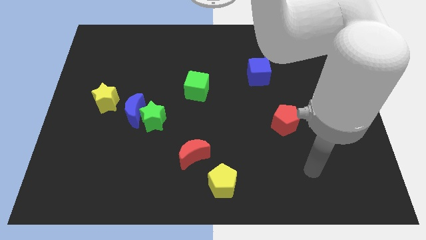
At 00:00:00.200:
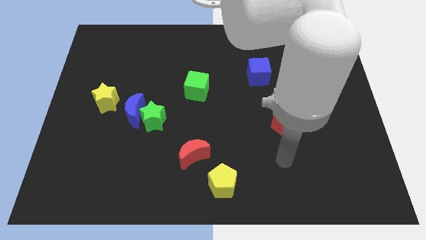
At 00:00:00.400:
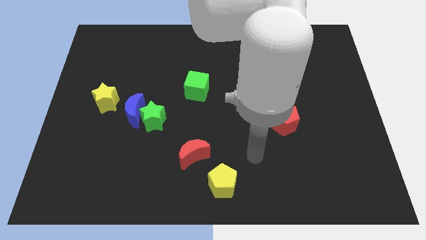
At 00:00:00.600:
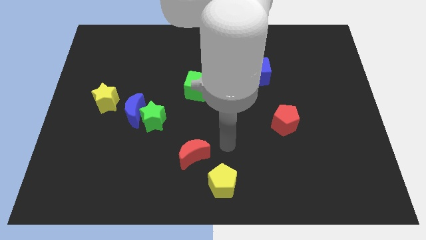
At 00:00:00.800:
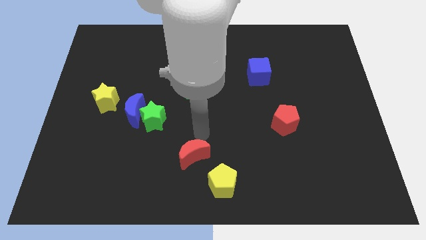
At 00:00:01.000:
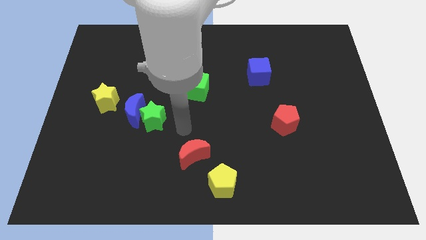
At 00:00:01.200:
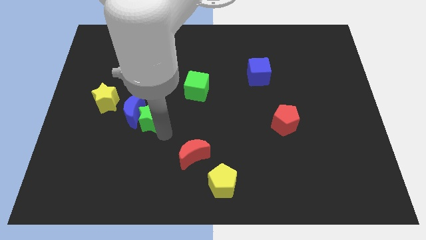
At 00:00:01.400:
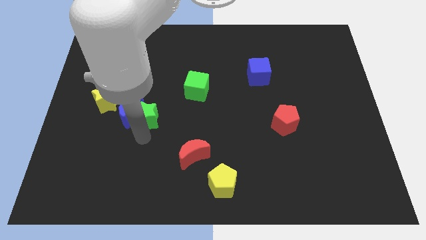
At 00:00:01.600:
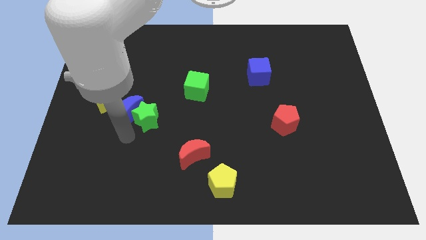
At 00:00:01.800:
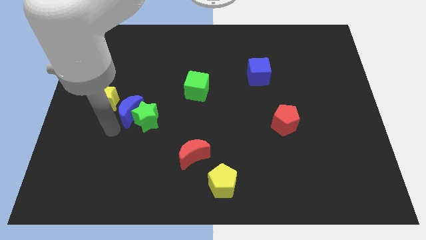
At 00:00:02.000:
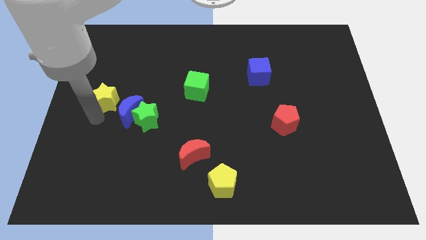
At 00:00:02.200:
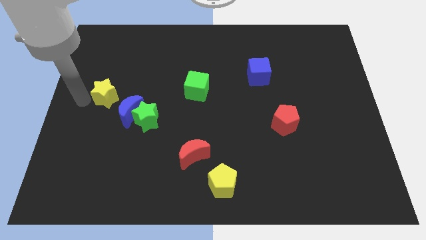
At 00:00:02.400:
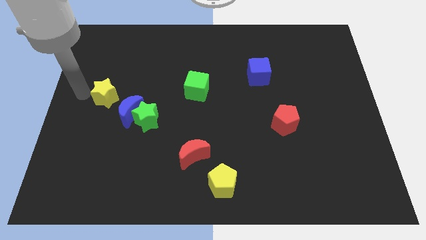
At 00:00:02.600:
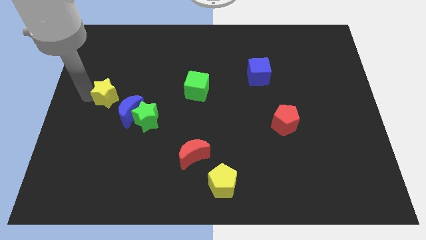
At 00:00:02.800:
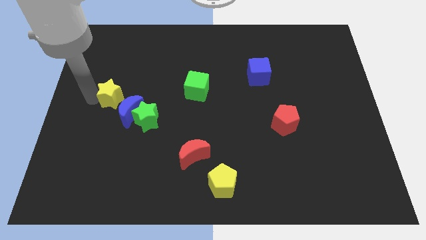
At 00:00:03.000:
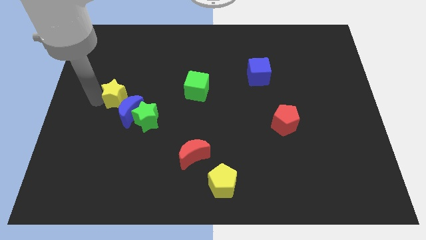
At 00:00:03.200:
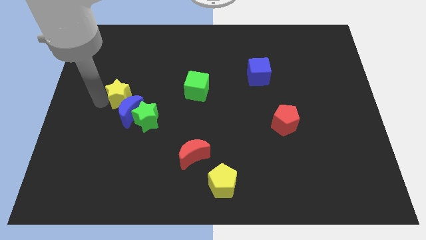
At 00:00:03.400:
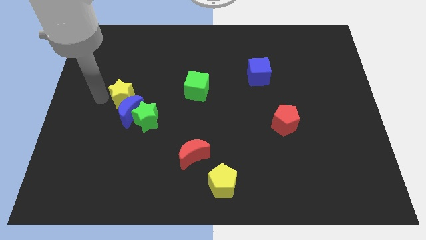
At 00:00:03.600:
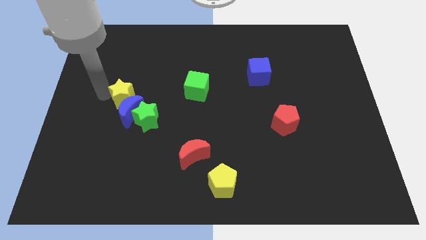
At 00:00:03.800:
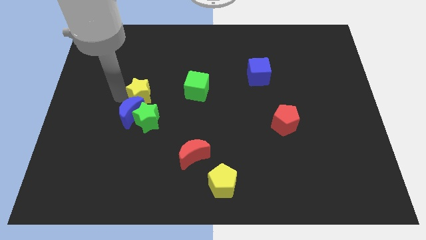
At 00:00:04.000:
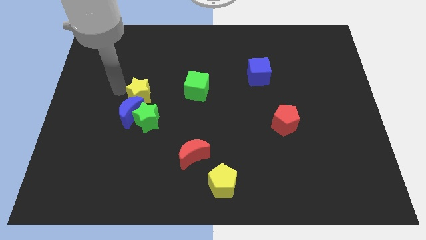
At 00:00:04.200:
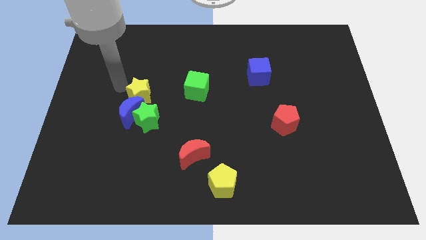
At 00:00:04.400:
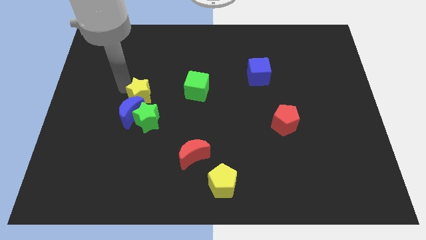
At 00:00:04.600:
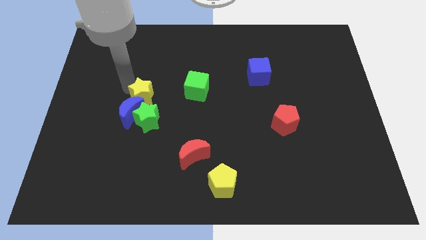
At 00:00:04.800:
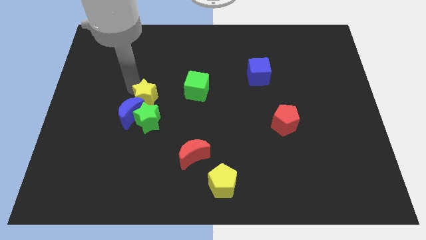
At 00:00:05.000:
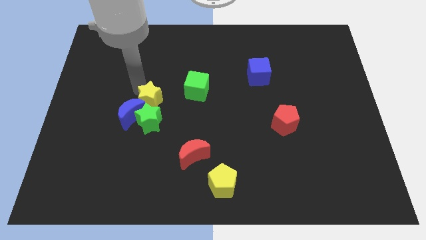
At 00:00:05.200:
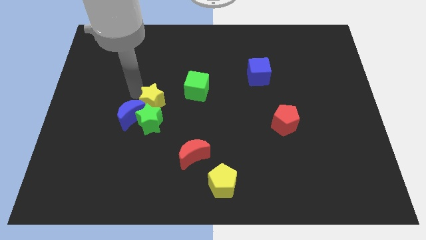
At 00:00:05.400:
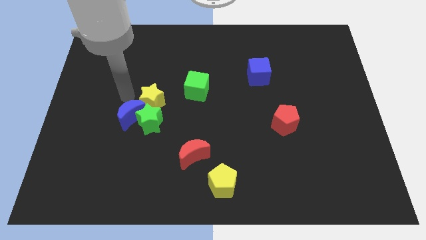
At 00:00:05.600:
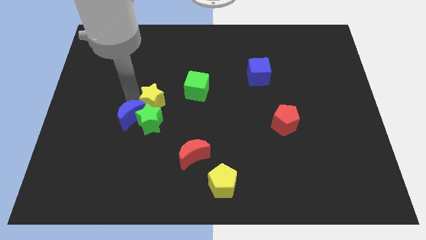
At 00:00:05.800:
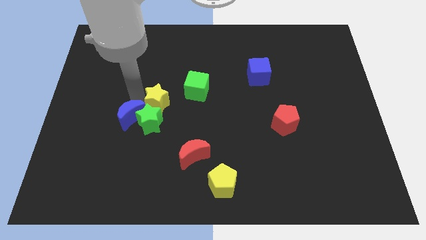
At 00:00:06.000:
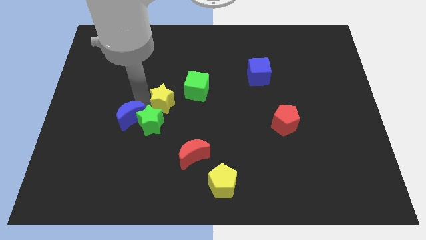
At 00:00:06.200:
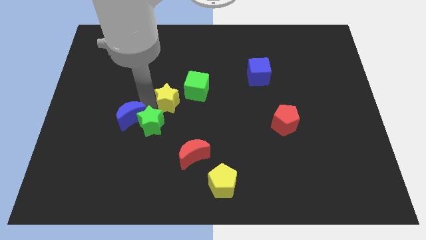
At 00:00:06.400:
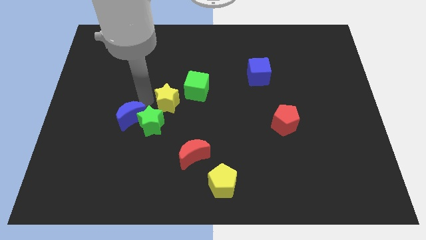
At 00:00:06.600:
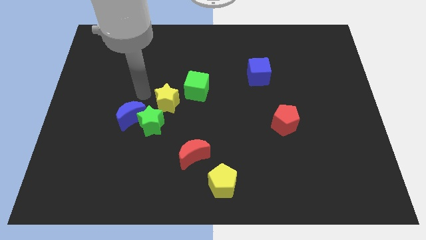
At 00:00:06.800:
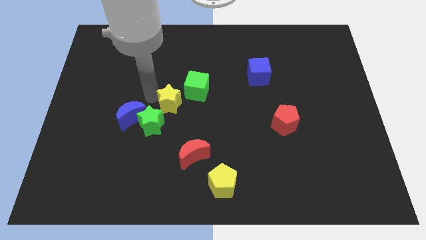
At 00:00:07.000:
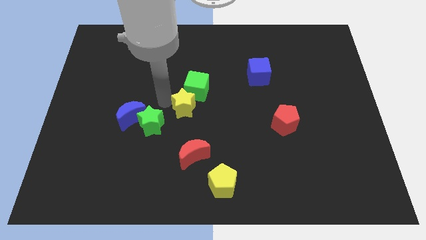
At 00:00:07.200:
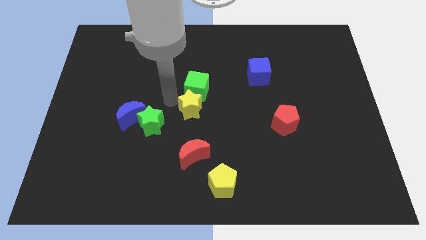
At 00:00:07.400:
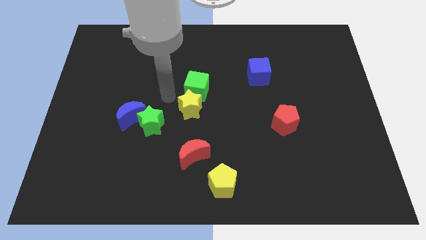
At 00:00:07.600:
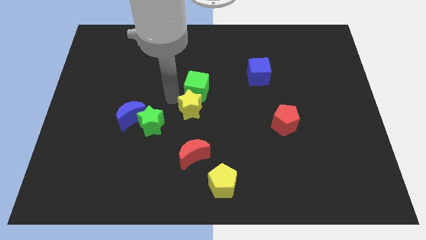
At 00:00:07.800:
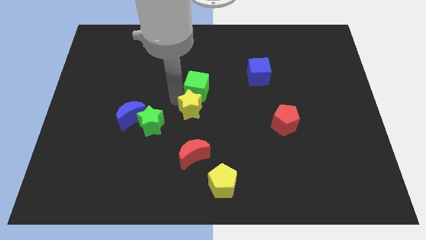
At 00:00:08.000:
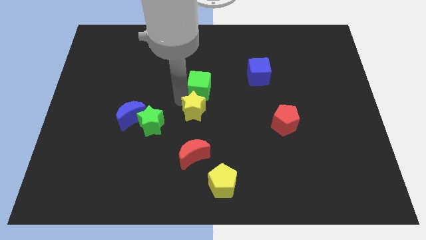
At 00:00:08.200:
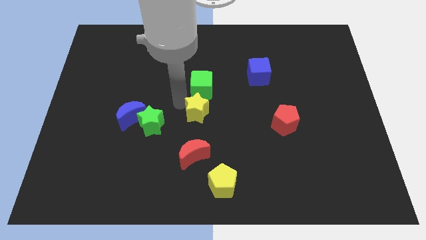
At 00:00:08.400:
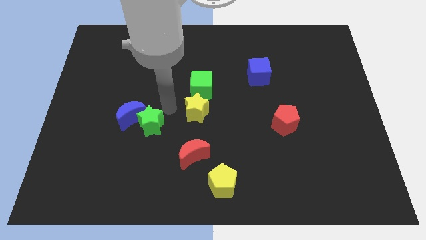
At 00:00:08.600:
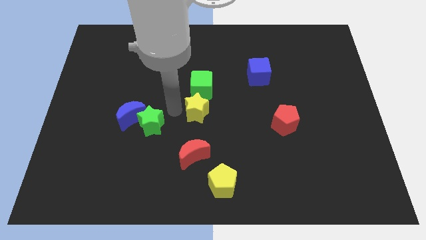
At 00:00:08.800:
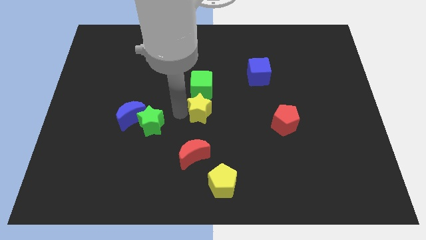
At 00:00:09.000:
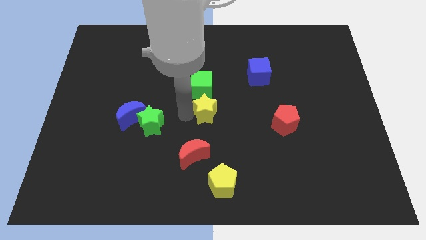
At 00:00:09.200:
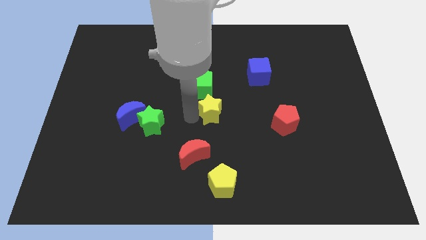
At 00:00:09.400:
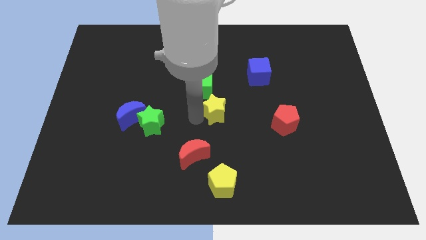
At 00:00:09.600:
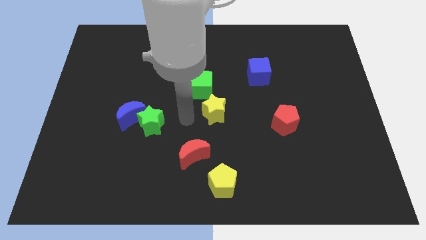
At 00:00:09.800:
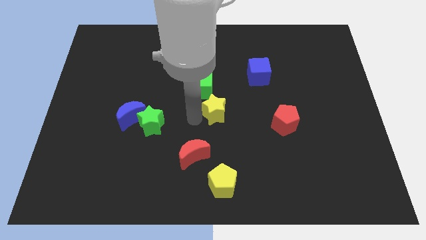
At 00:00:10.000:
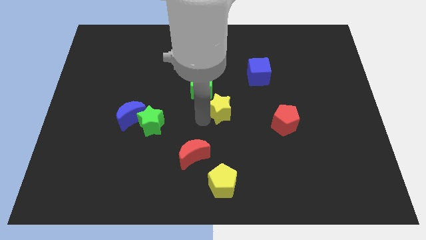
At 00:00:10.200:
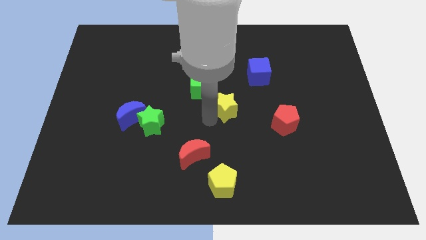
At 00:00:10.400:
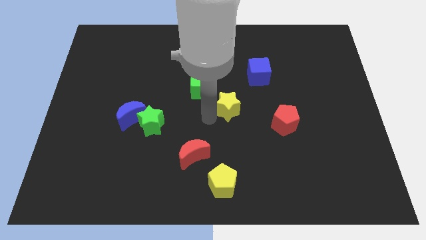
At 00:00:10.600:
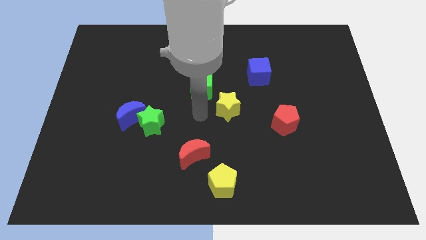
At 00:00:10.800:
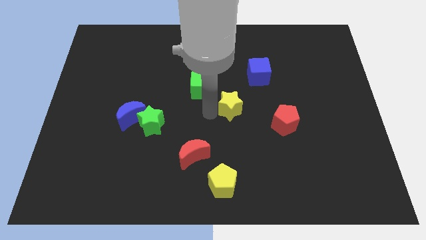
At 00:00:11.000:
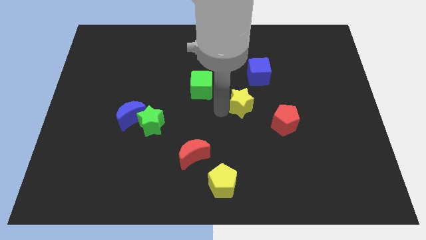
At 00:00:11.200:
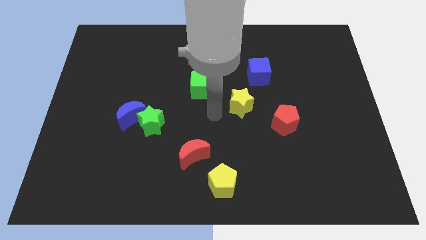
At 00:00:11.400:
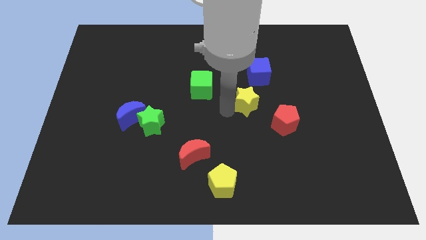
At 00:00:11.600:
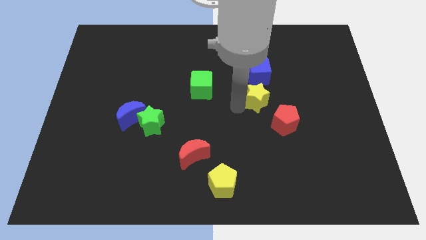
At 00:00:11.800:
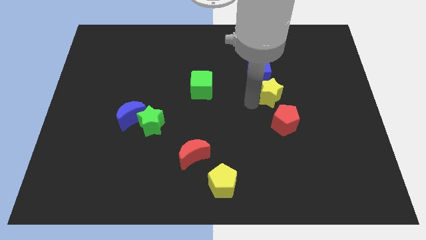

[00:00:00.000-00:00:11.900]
push the yellow star to the bottom right of the blue cube

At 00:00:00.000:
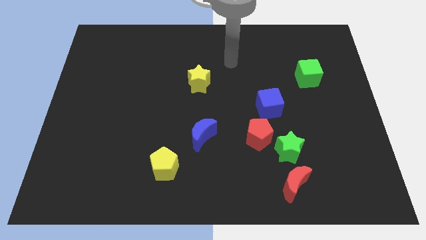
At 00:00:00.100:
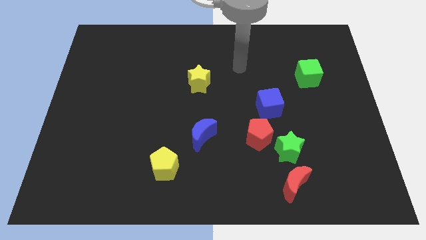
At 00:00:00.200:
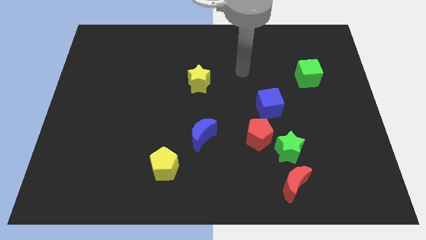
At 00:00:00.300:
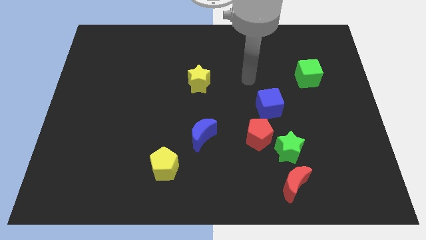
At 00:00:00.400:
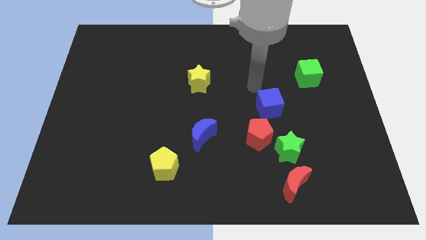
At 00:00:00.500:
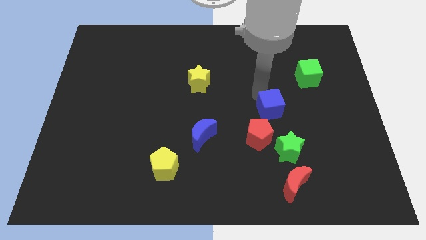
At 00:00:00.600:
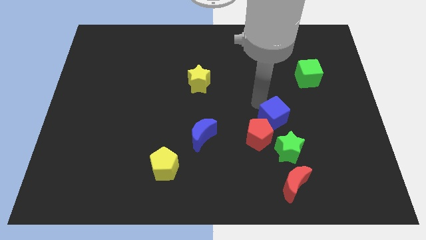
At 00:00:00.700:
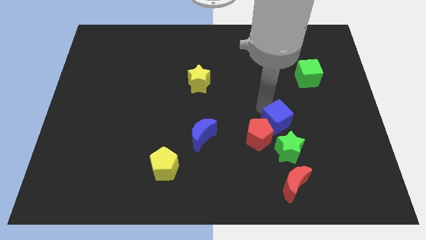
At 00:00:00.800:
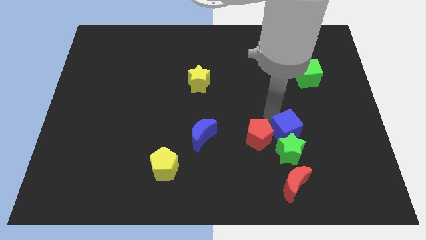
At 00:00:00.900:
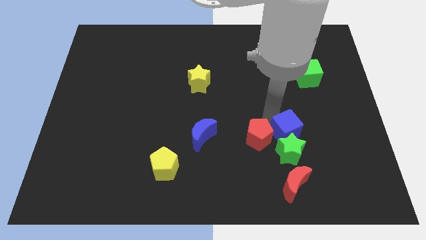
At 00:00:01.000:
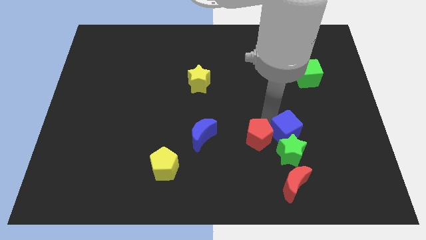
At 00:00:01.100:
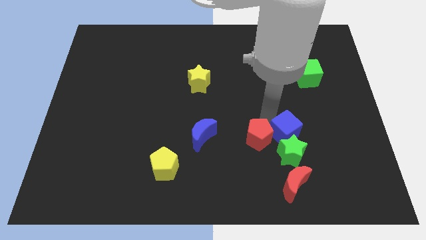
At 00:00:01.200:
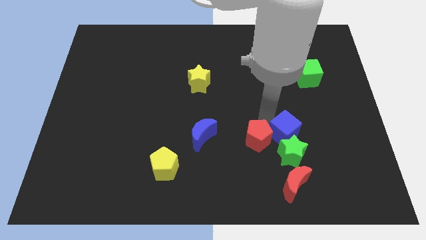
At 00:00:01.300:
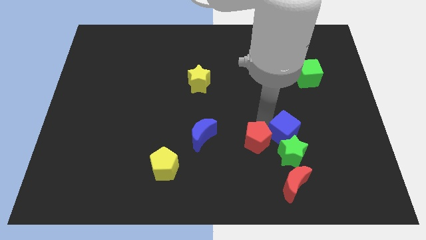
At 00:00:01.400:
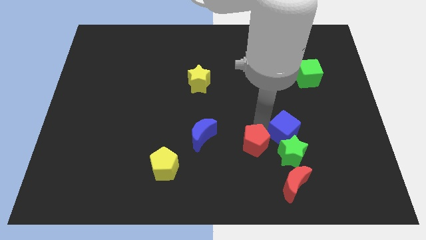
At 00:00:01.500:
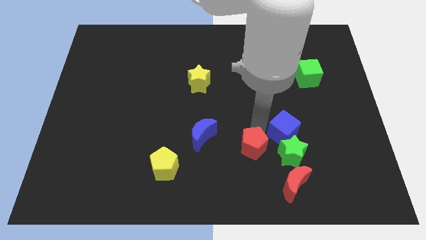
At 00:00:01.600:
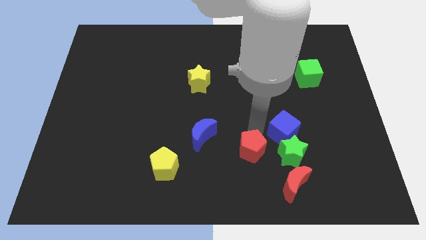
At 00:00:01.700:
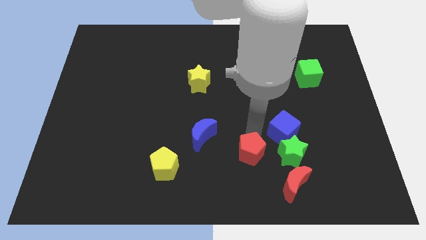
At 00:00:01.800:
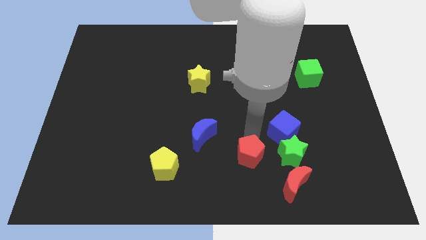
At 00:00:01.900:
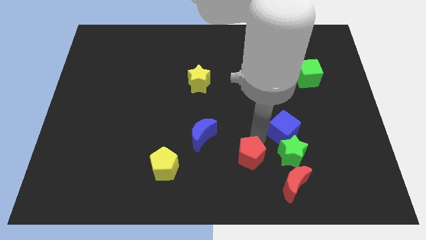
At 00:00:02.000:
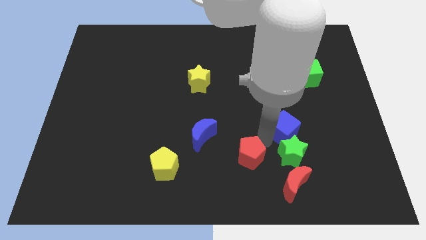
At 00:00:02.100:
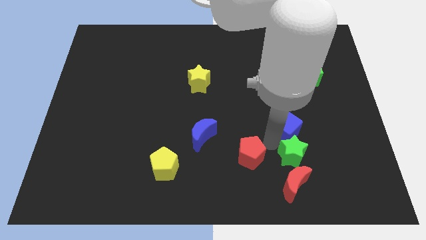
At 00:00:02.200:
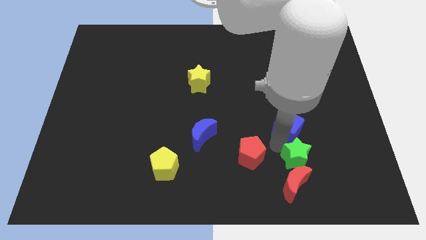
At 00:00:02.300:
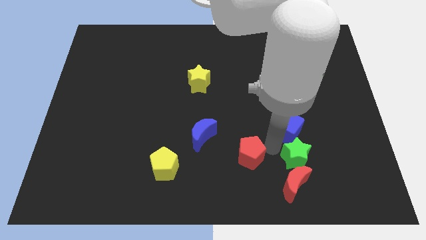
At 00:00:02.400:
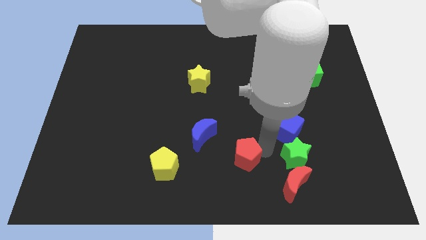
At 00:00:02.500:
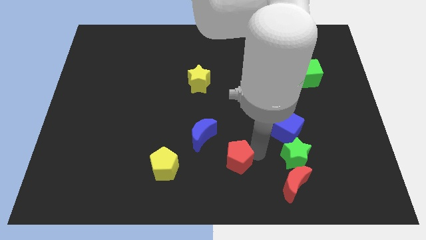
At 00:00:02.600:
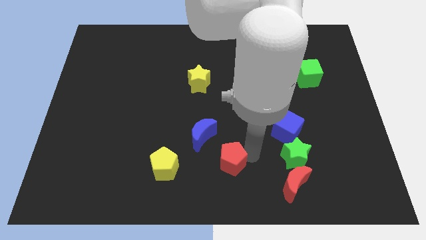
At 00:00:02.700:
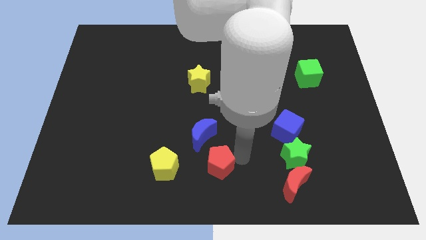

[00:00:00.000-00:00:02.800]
push the red pentagon to the bottom of the blue moon
